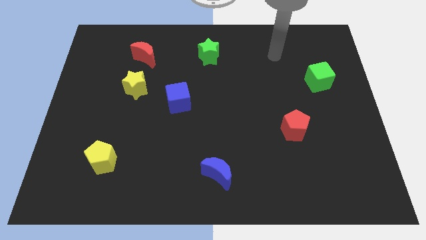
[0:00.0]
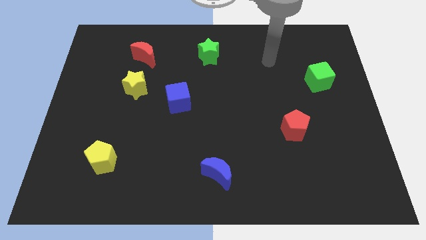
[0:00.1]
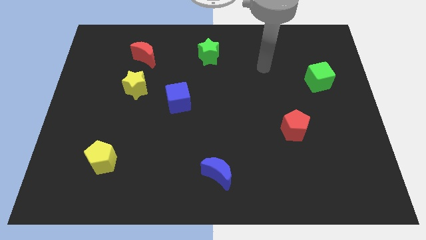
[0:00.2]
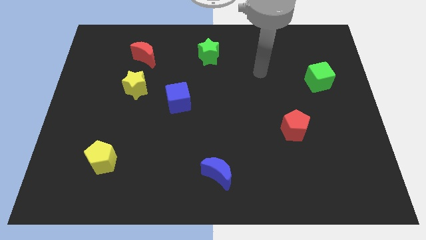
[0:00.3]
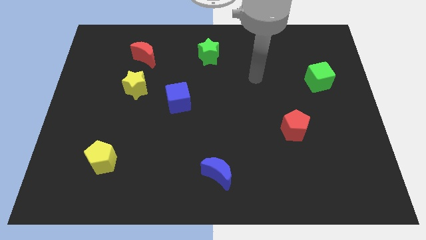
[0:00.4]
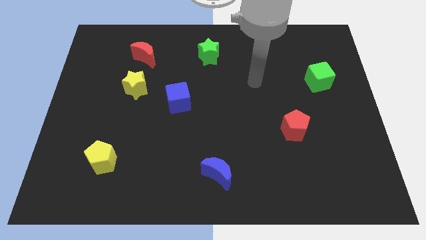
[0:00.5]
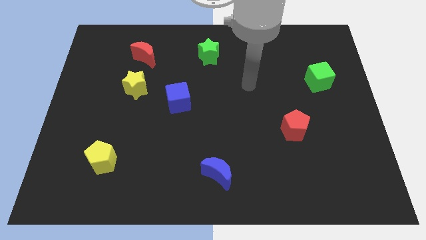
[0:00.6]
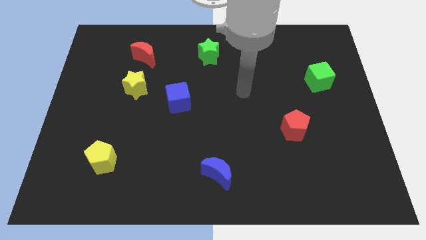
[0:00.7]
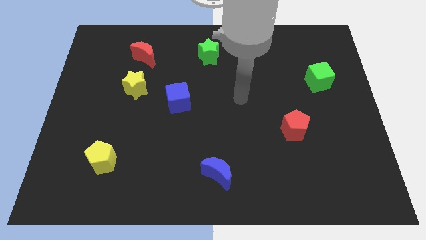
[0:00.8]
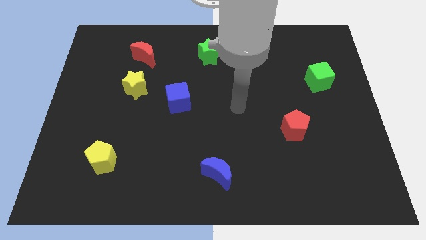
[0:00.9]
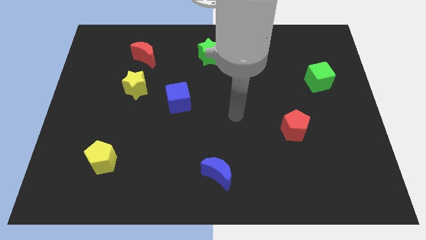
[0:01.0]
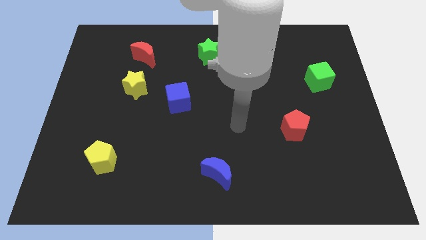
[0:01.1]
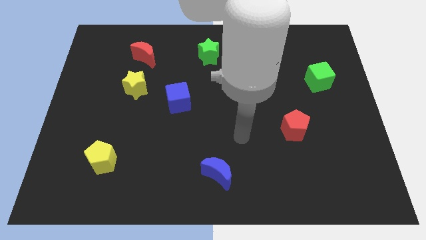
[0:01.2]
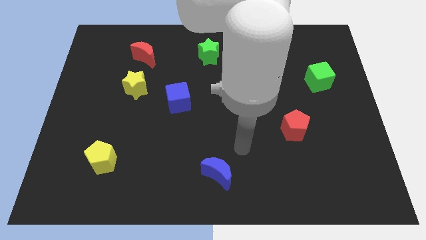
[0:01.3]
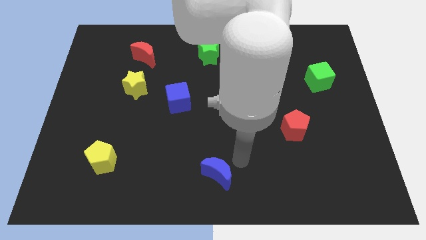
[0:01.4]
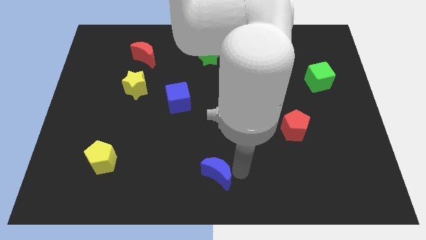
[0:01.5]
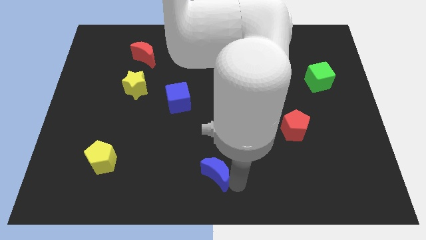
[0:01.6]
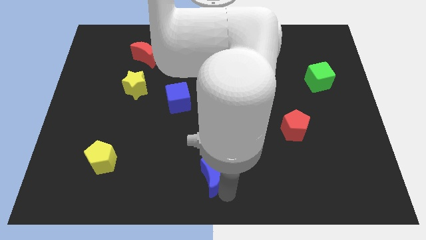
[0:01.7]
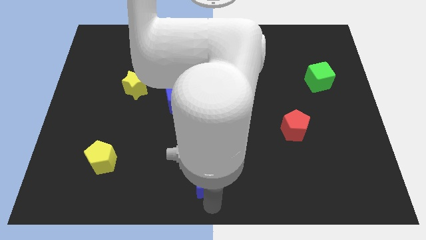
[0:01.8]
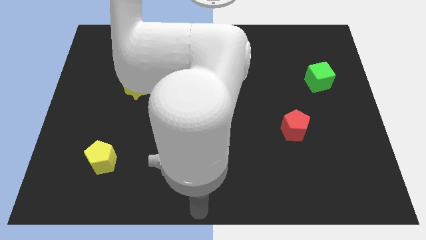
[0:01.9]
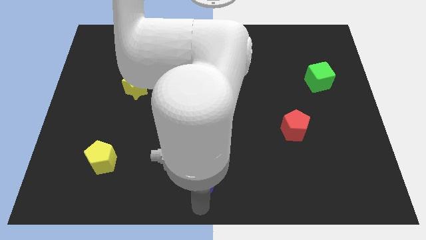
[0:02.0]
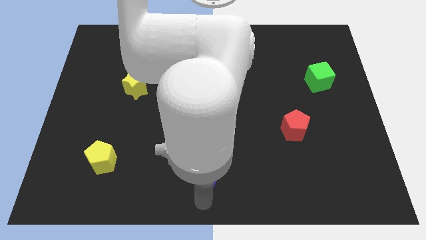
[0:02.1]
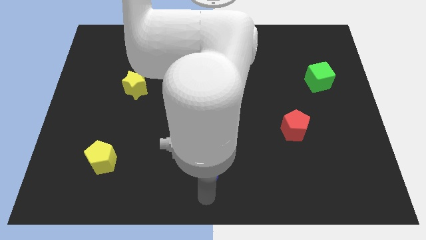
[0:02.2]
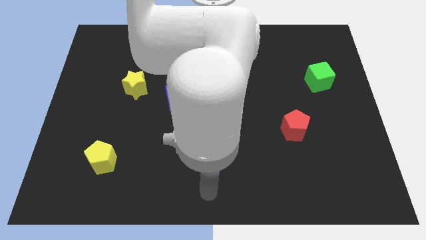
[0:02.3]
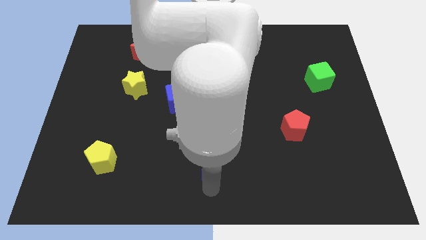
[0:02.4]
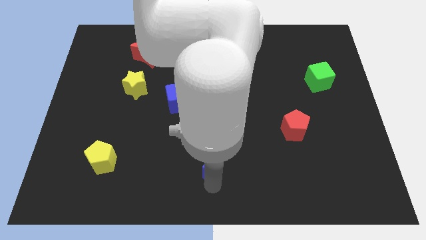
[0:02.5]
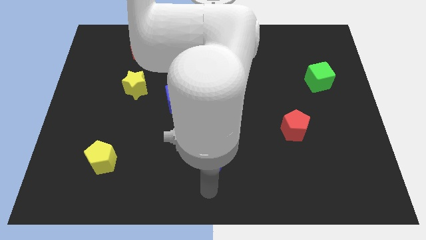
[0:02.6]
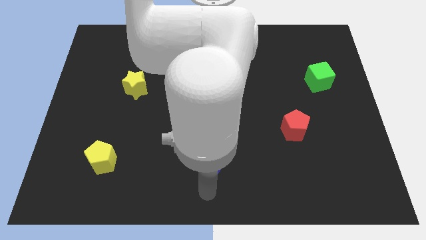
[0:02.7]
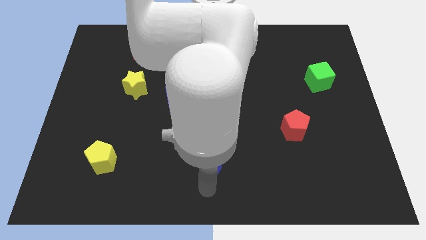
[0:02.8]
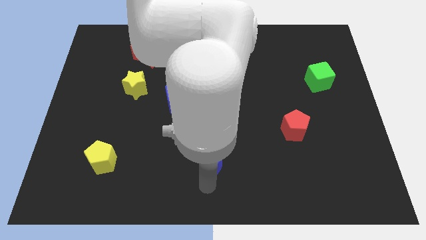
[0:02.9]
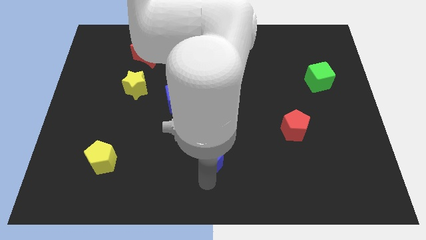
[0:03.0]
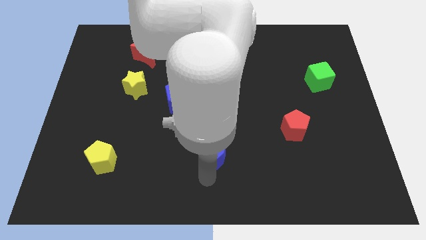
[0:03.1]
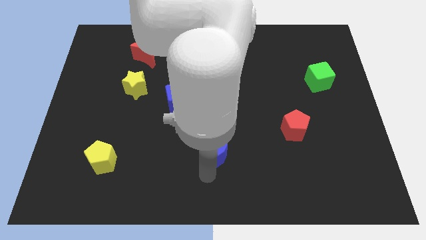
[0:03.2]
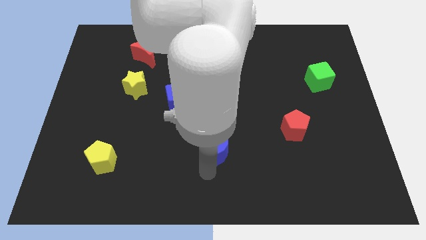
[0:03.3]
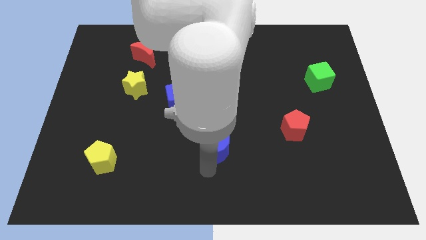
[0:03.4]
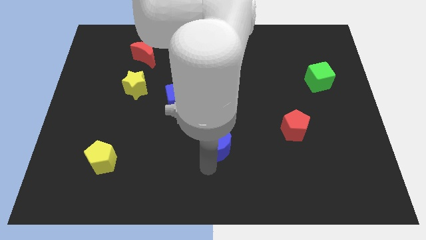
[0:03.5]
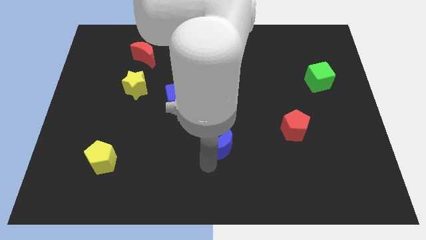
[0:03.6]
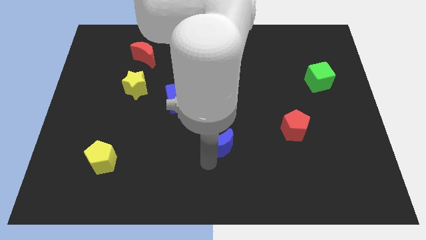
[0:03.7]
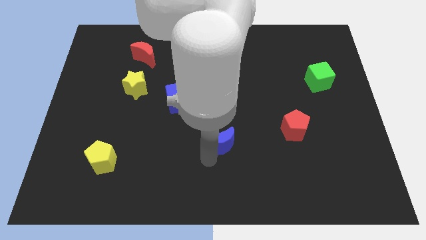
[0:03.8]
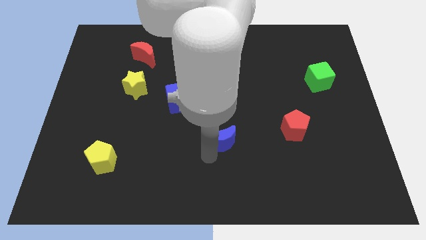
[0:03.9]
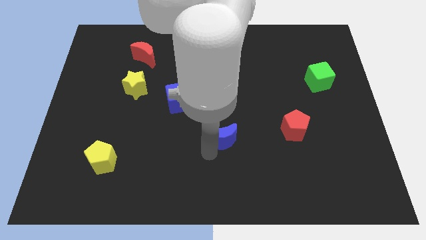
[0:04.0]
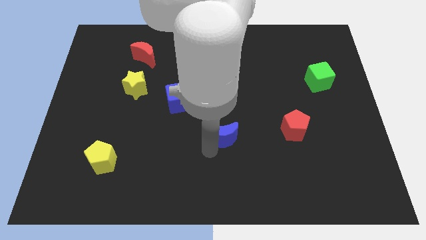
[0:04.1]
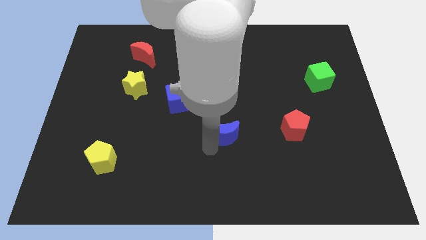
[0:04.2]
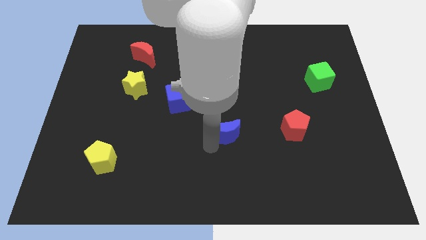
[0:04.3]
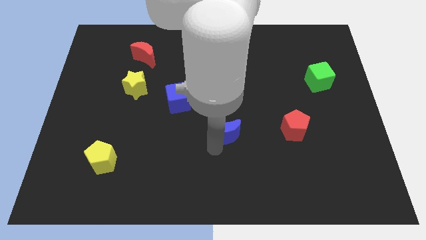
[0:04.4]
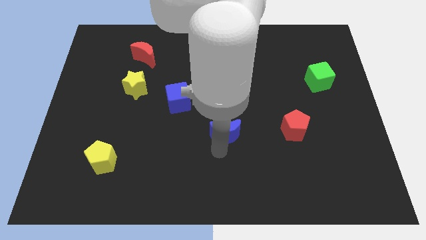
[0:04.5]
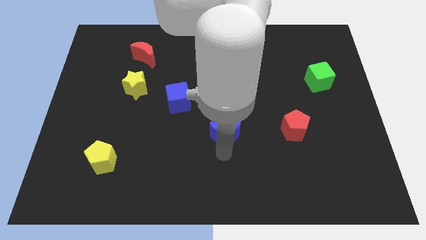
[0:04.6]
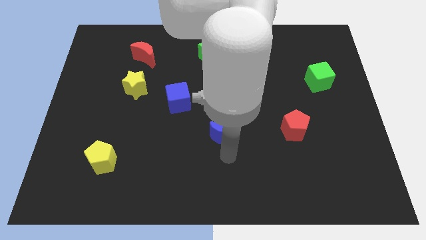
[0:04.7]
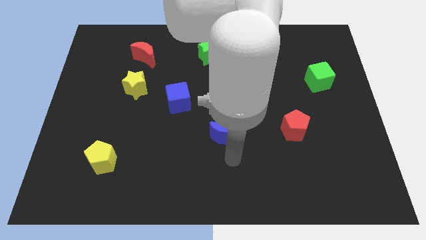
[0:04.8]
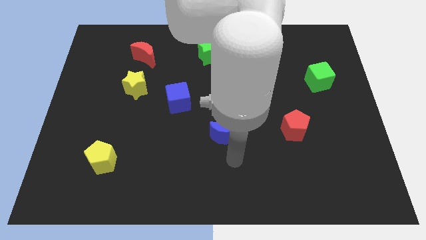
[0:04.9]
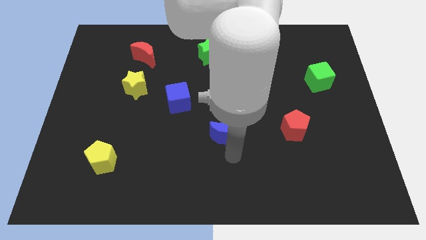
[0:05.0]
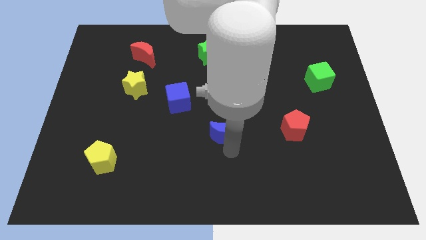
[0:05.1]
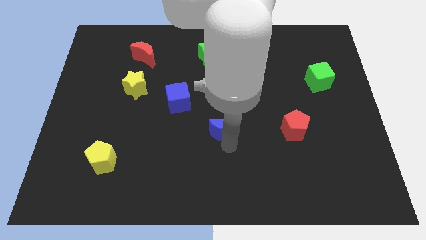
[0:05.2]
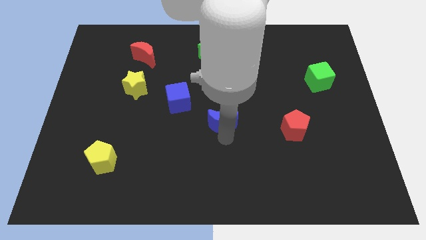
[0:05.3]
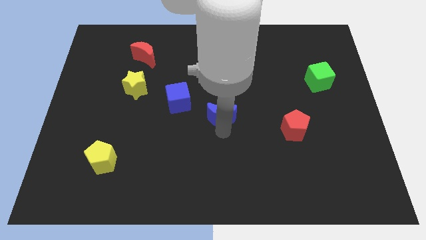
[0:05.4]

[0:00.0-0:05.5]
push the blue moon to the right of the blue cube

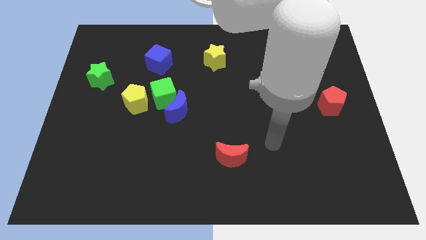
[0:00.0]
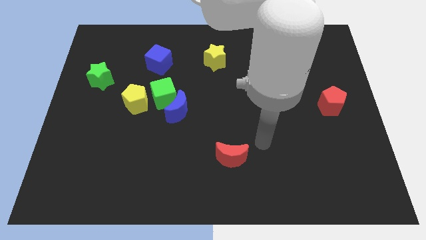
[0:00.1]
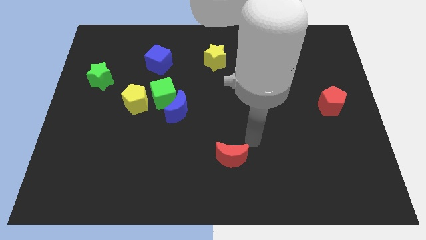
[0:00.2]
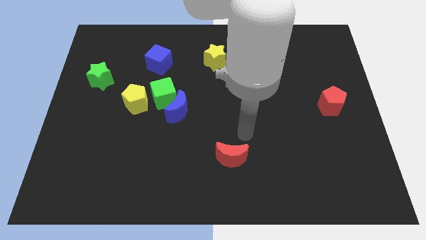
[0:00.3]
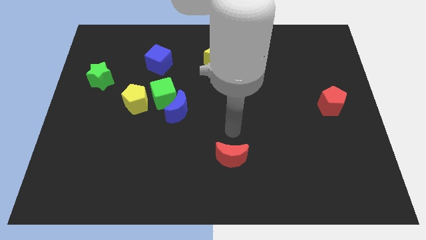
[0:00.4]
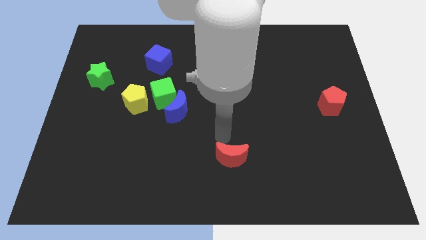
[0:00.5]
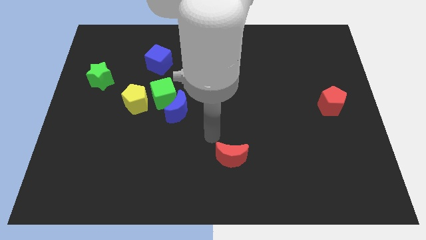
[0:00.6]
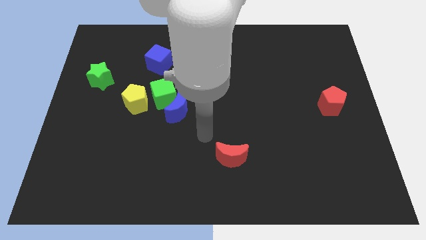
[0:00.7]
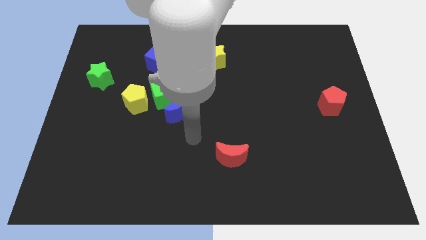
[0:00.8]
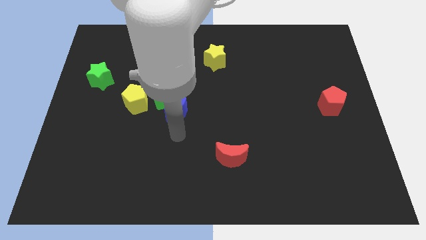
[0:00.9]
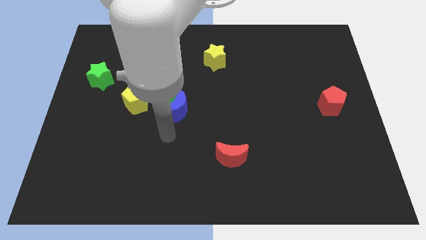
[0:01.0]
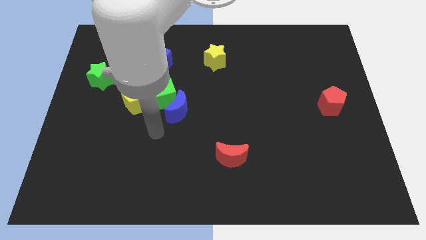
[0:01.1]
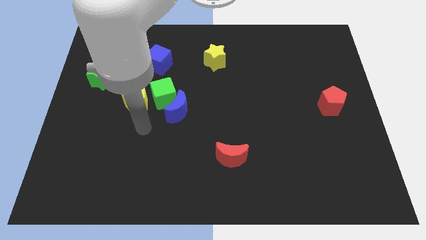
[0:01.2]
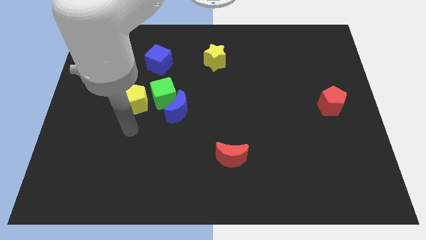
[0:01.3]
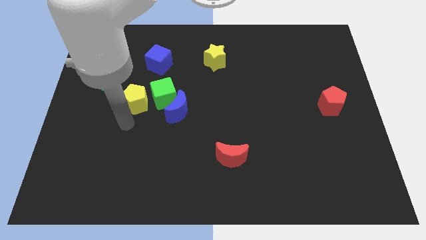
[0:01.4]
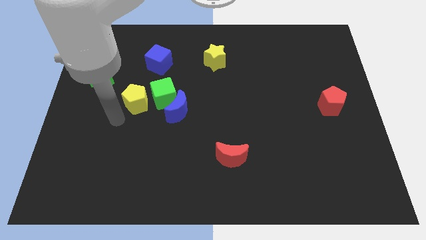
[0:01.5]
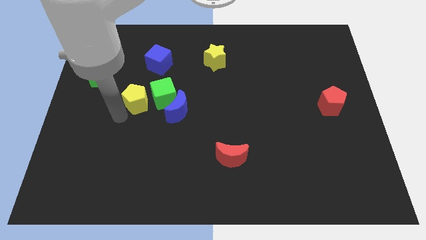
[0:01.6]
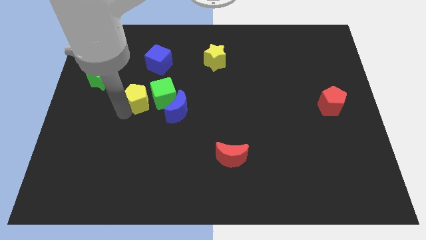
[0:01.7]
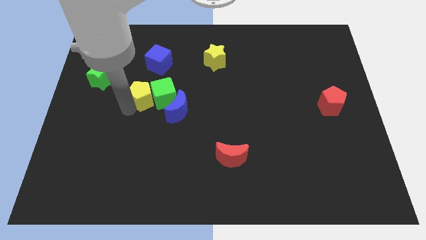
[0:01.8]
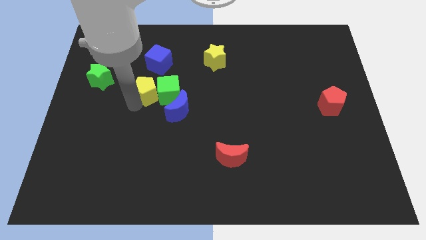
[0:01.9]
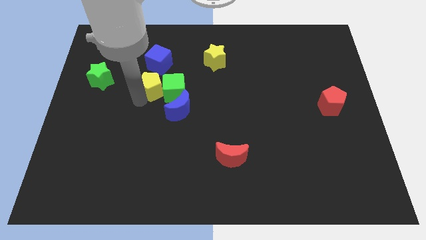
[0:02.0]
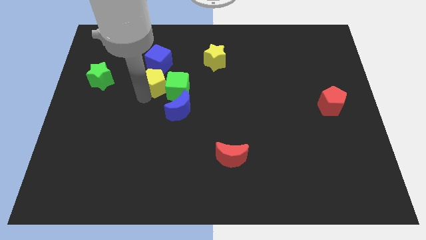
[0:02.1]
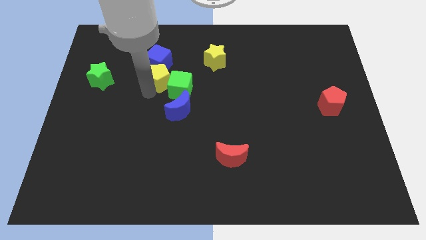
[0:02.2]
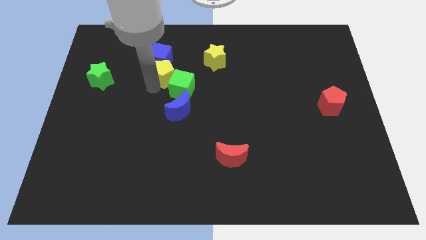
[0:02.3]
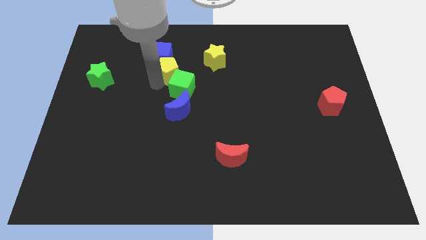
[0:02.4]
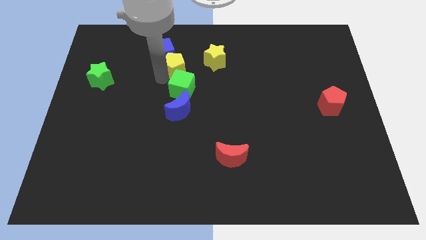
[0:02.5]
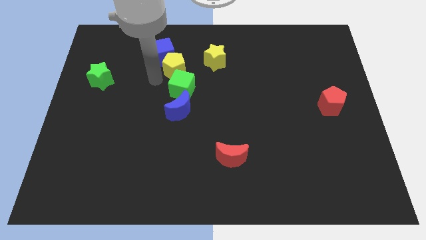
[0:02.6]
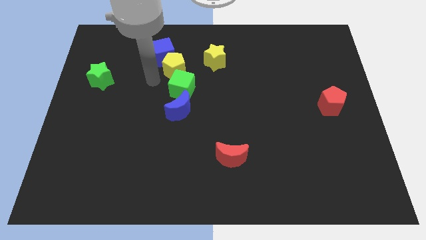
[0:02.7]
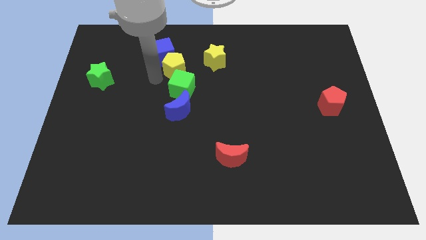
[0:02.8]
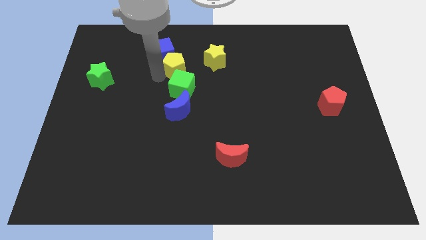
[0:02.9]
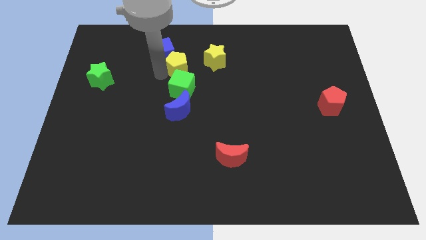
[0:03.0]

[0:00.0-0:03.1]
put the yellow pentagon right of the blue cube
